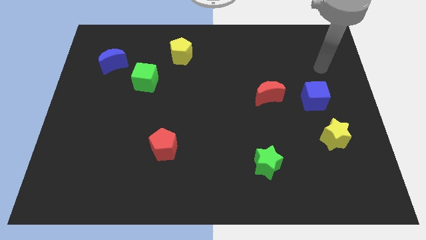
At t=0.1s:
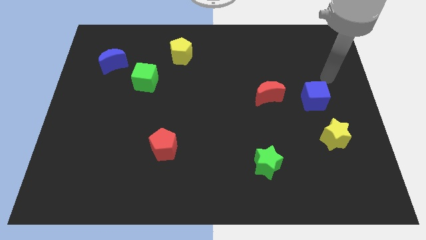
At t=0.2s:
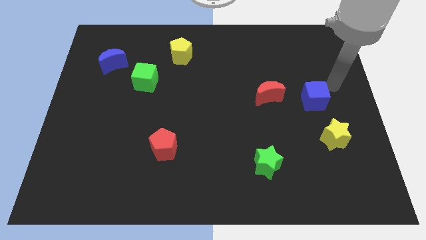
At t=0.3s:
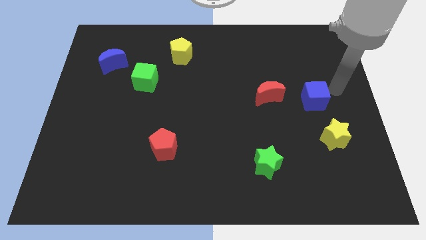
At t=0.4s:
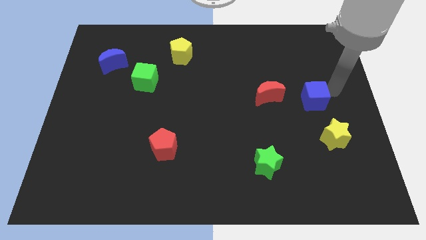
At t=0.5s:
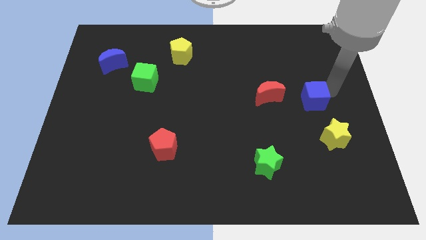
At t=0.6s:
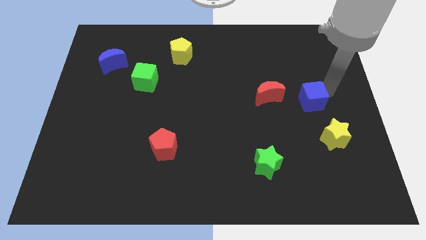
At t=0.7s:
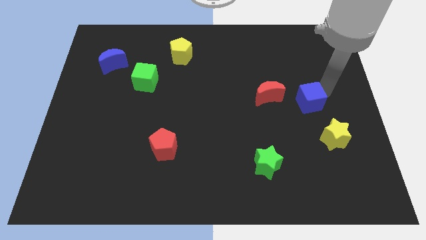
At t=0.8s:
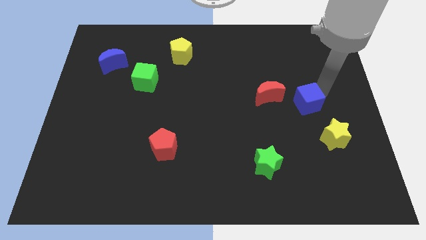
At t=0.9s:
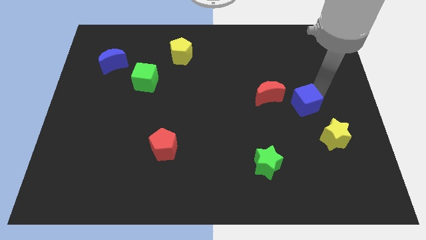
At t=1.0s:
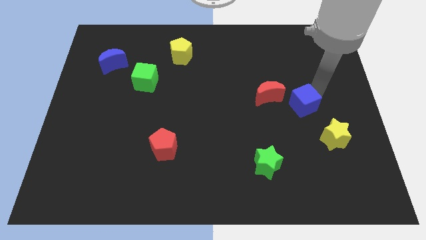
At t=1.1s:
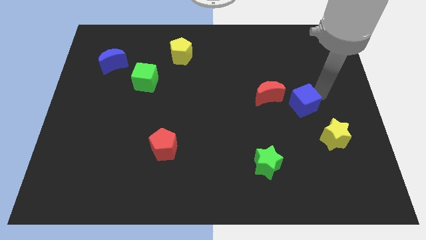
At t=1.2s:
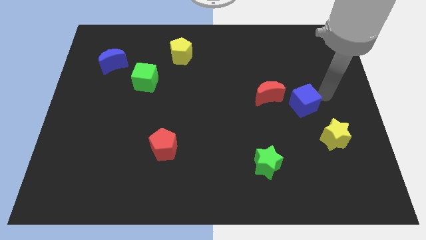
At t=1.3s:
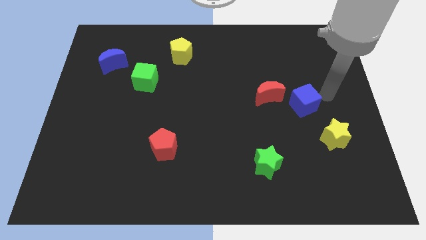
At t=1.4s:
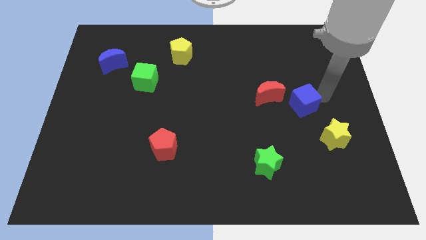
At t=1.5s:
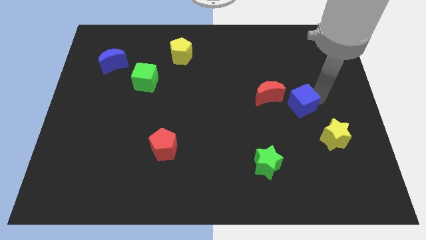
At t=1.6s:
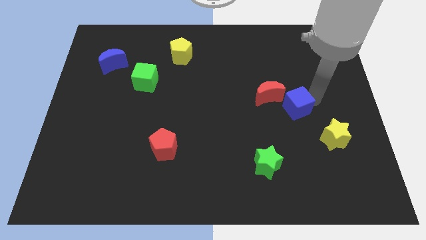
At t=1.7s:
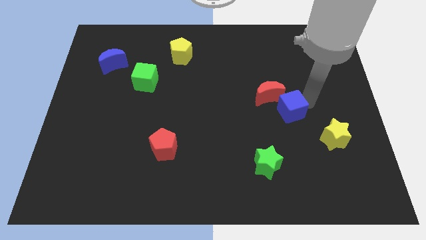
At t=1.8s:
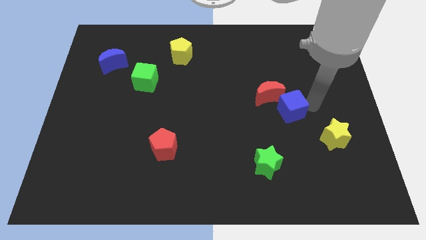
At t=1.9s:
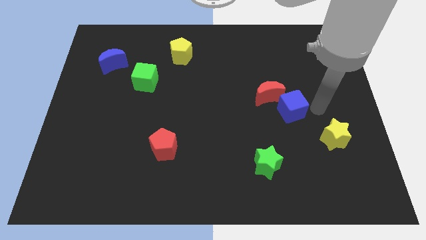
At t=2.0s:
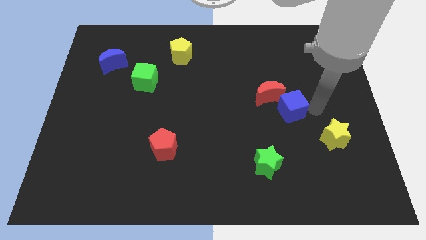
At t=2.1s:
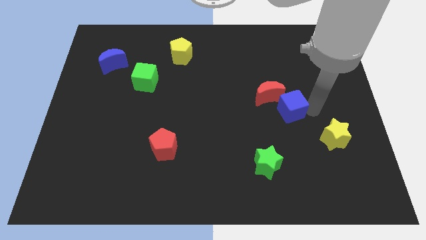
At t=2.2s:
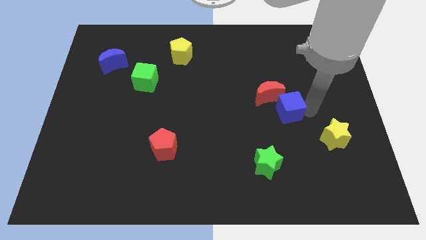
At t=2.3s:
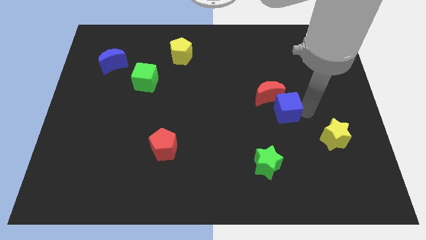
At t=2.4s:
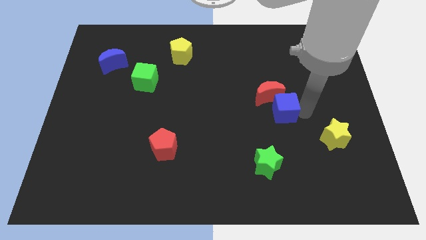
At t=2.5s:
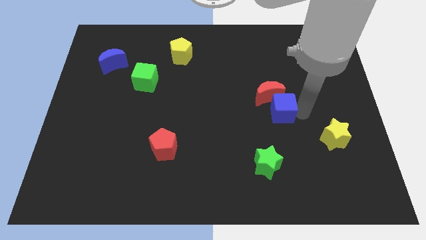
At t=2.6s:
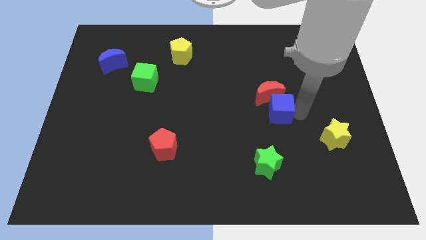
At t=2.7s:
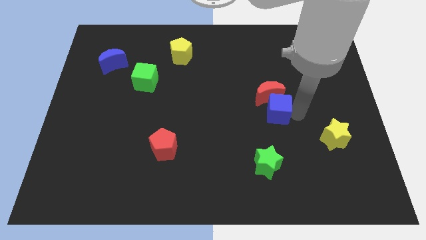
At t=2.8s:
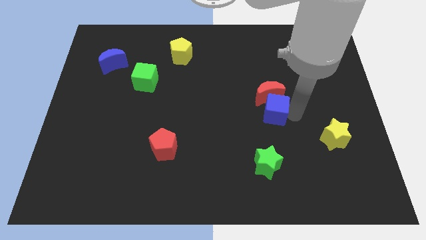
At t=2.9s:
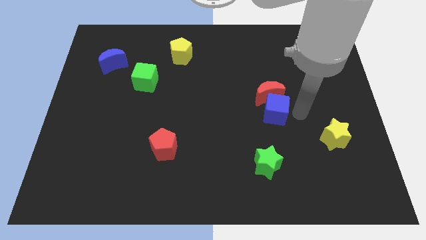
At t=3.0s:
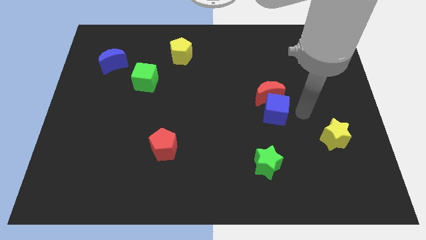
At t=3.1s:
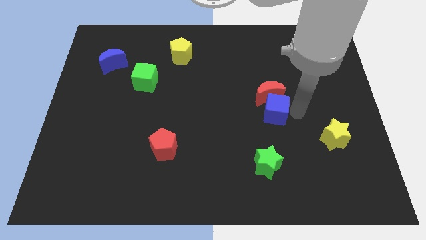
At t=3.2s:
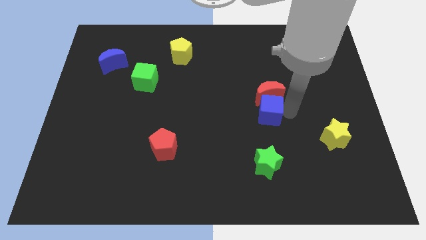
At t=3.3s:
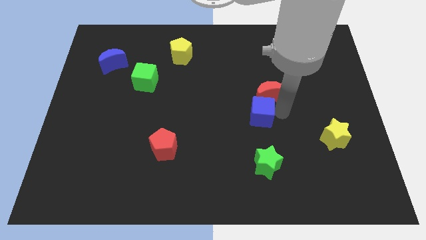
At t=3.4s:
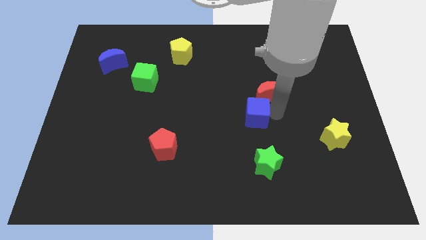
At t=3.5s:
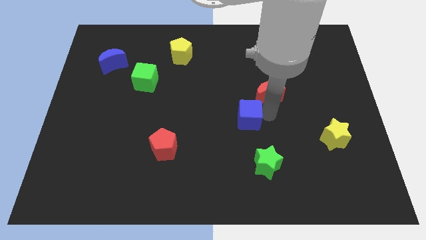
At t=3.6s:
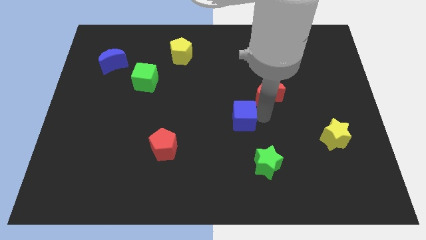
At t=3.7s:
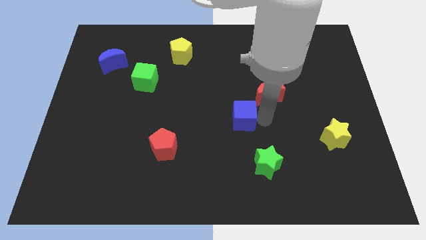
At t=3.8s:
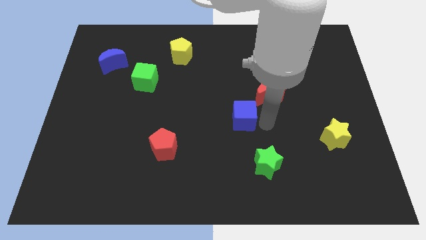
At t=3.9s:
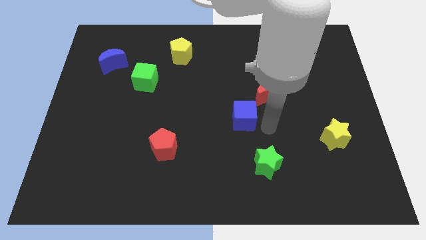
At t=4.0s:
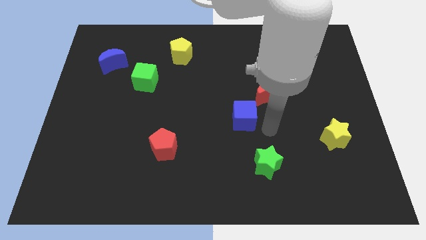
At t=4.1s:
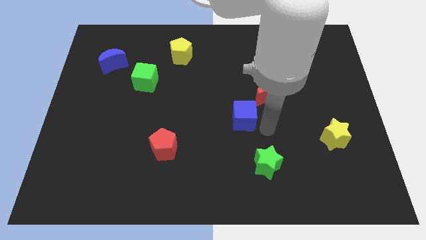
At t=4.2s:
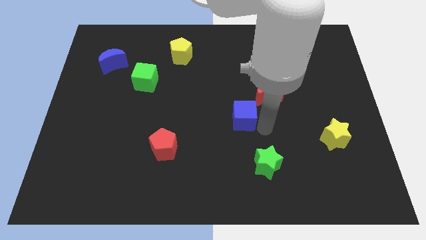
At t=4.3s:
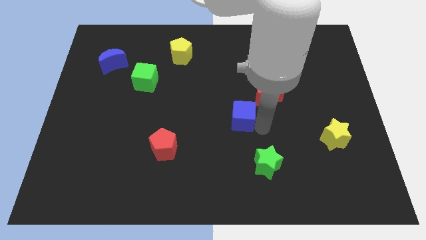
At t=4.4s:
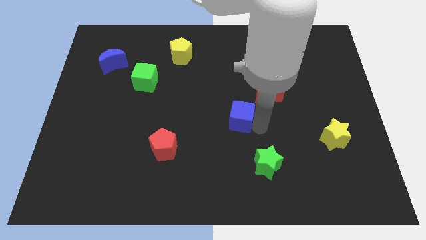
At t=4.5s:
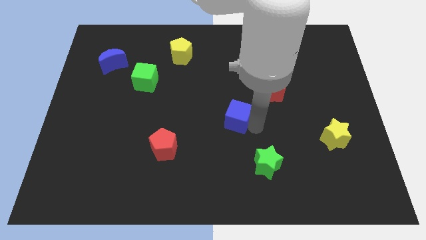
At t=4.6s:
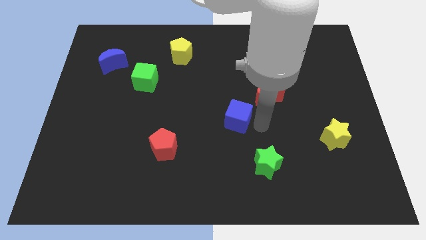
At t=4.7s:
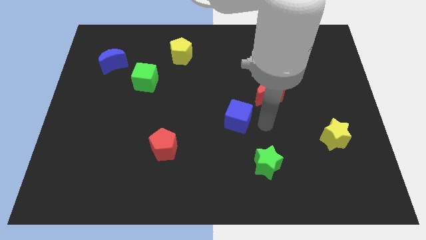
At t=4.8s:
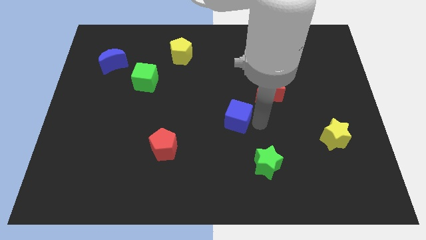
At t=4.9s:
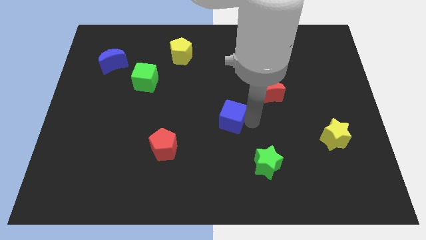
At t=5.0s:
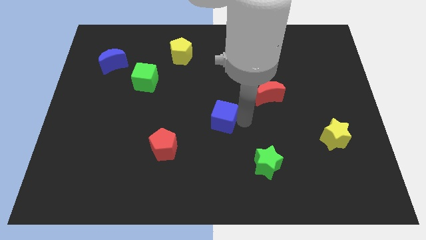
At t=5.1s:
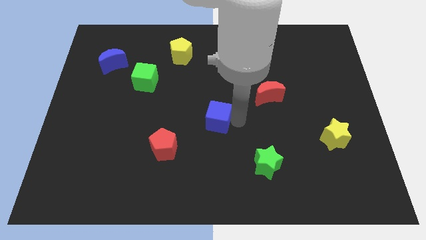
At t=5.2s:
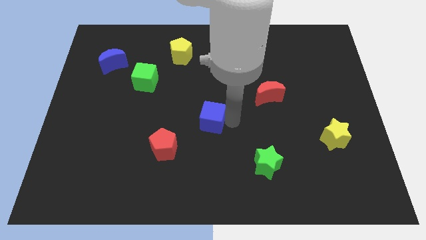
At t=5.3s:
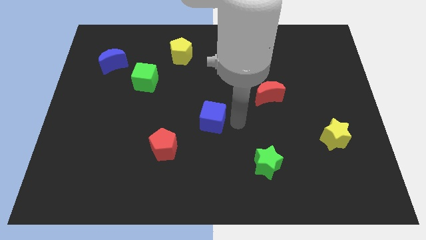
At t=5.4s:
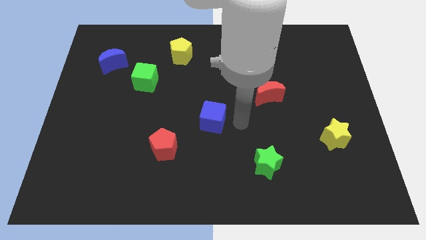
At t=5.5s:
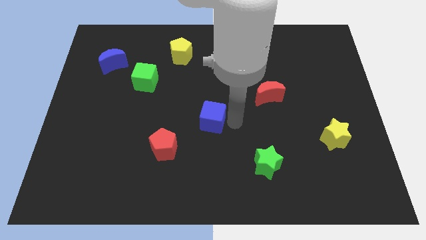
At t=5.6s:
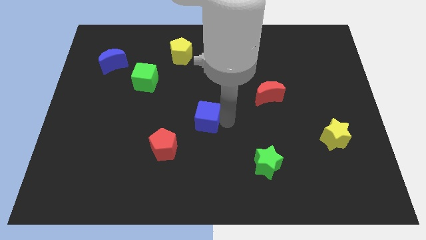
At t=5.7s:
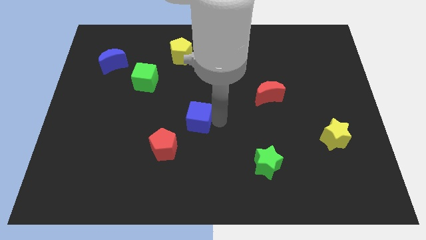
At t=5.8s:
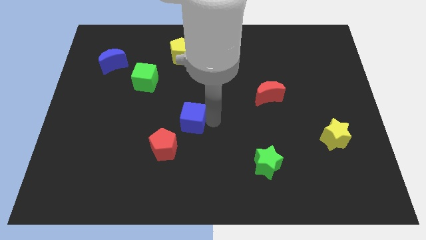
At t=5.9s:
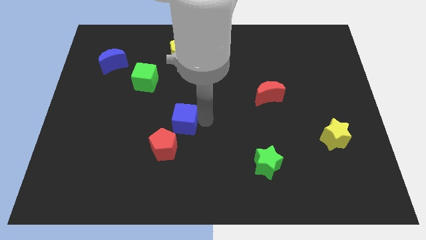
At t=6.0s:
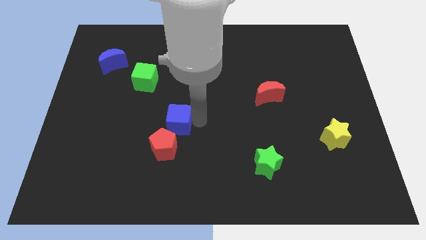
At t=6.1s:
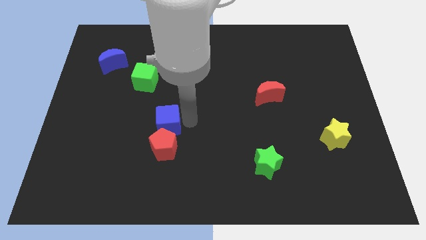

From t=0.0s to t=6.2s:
put the blue cube diagonally up and to the left of the red pentagon

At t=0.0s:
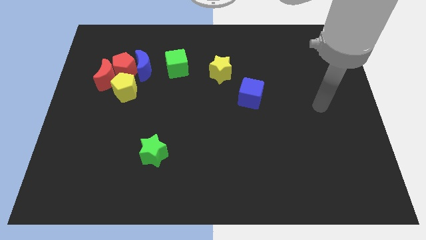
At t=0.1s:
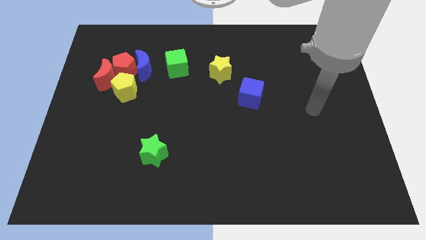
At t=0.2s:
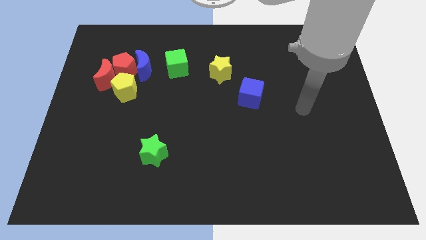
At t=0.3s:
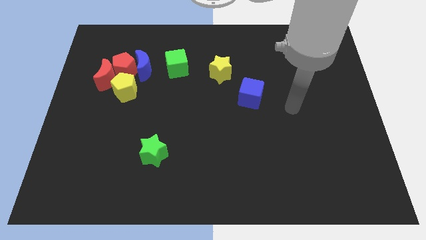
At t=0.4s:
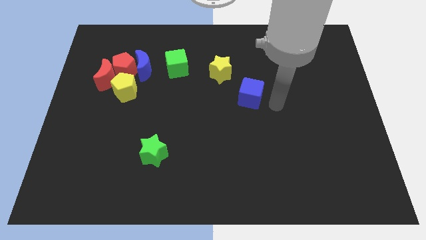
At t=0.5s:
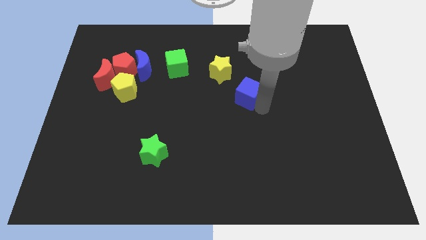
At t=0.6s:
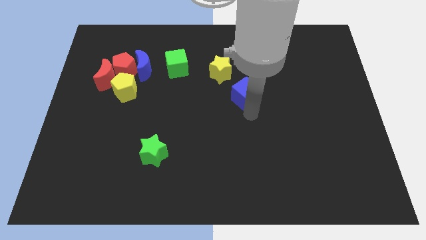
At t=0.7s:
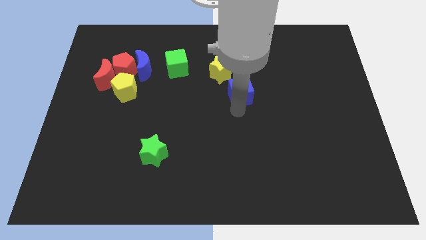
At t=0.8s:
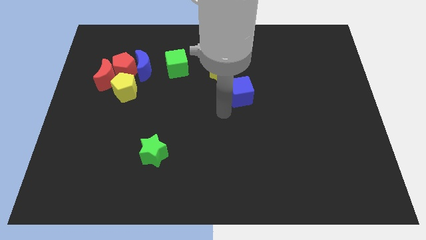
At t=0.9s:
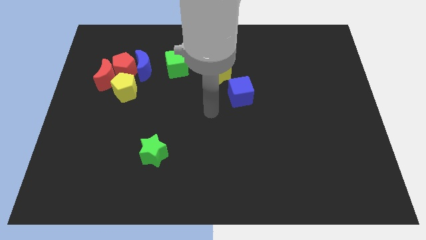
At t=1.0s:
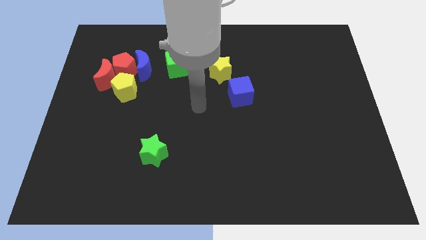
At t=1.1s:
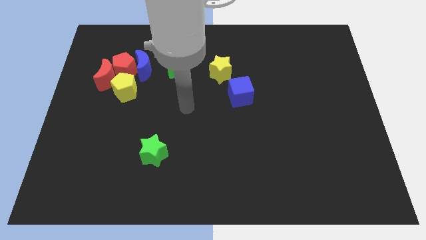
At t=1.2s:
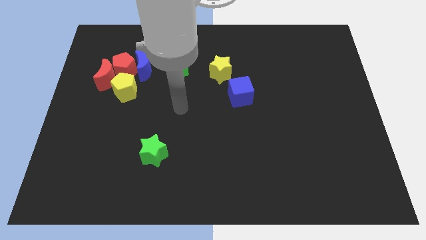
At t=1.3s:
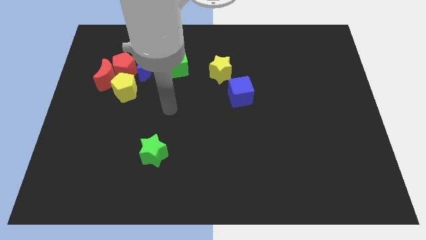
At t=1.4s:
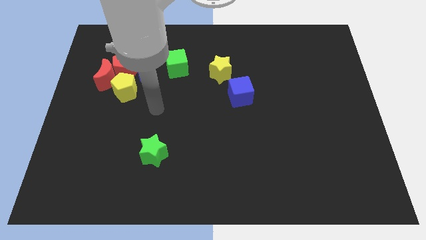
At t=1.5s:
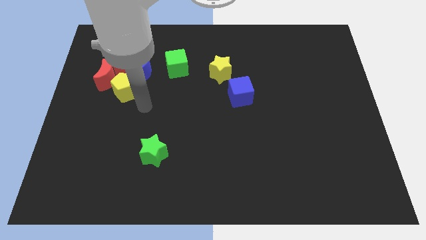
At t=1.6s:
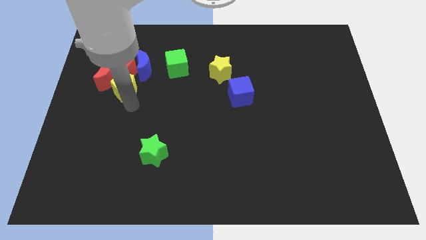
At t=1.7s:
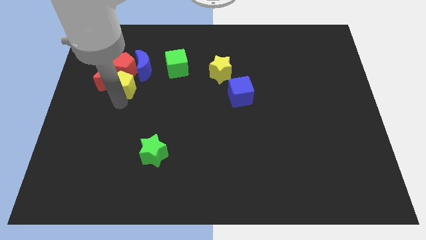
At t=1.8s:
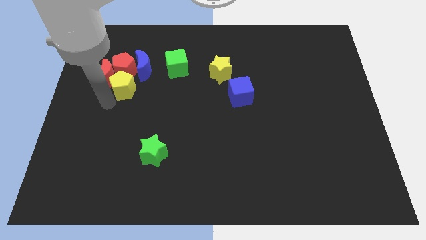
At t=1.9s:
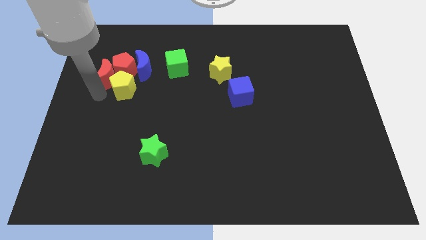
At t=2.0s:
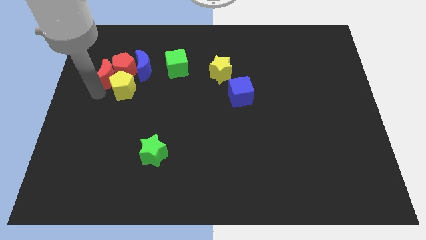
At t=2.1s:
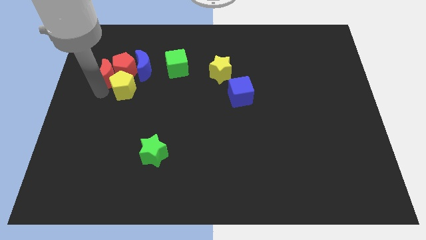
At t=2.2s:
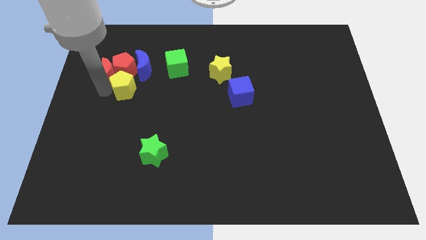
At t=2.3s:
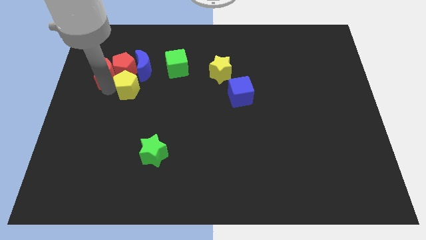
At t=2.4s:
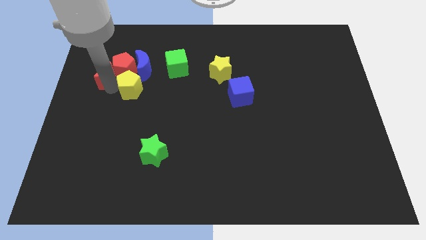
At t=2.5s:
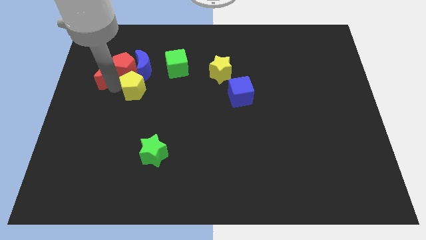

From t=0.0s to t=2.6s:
push the yellow pentagon to the bottom left side of the green cube
